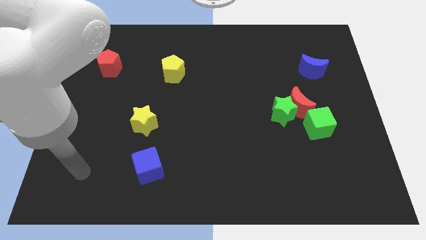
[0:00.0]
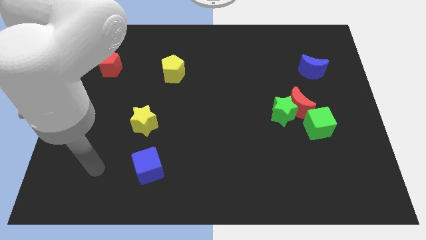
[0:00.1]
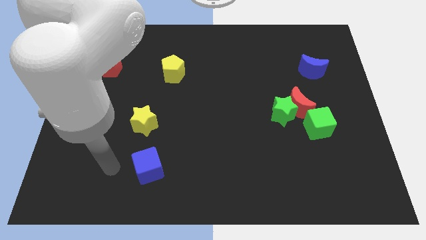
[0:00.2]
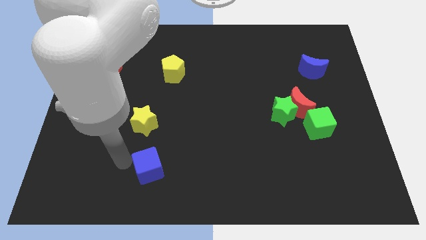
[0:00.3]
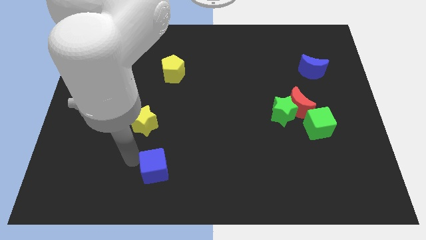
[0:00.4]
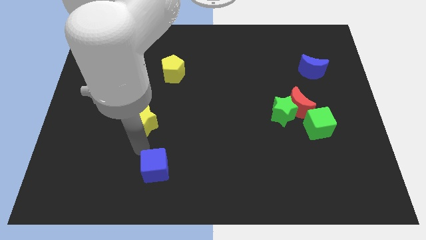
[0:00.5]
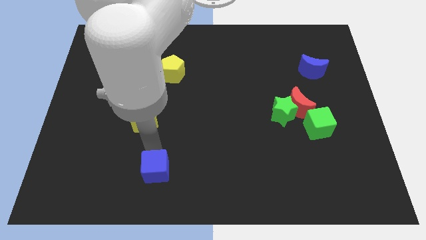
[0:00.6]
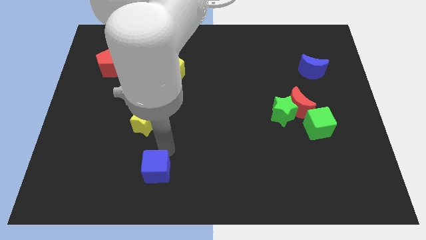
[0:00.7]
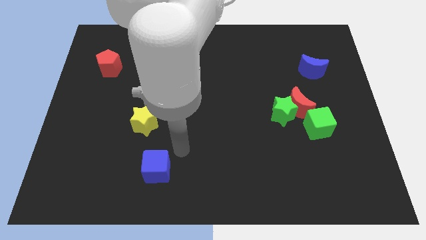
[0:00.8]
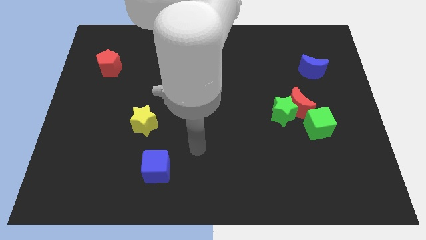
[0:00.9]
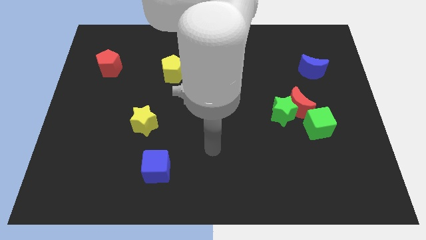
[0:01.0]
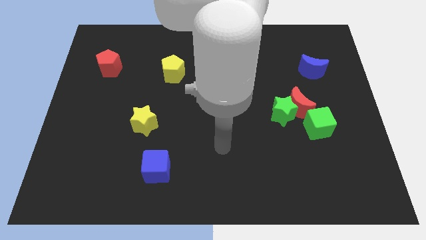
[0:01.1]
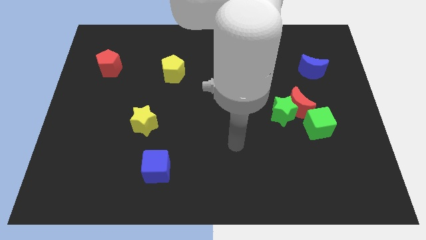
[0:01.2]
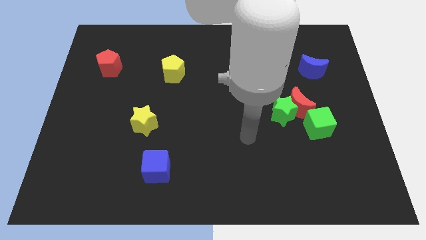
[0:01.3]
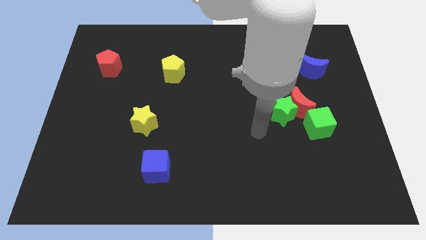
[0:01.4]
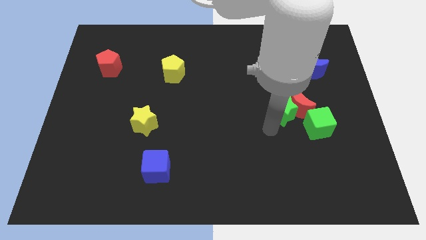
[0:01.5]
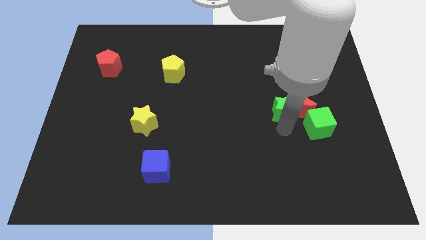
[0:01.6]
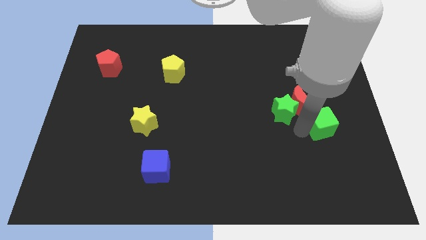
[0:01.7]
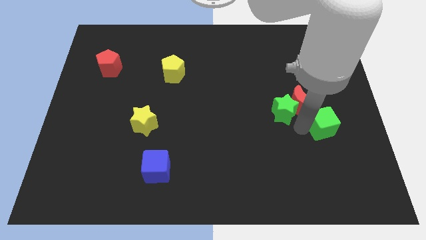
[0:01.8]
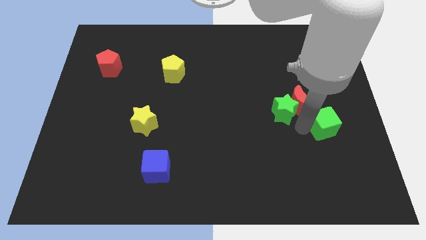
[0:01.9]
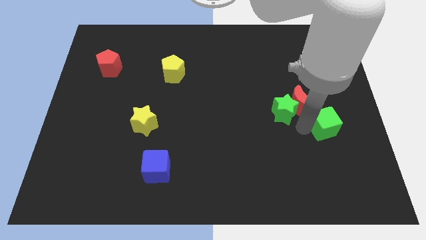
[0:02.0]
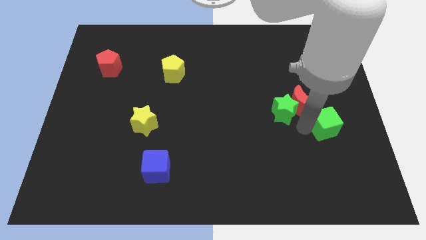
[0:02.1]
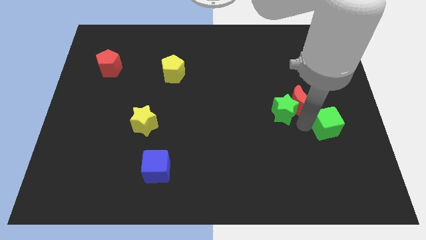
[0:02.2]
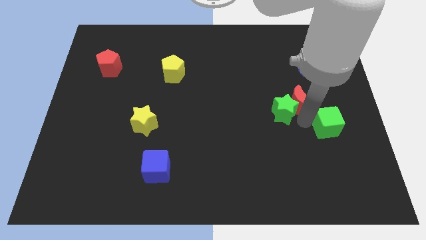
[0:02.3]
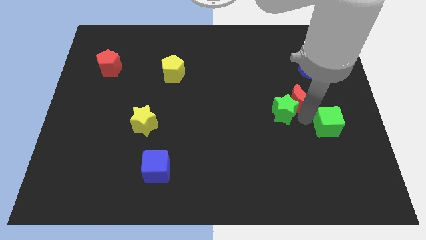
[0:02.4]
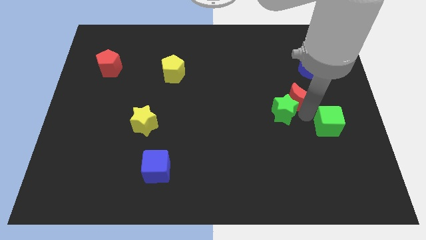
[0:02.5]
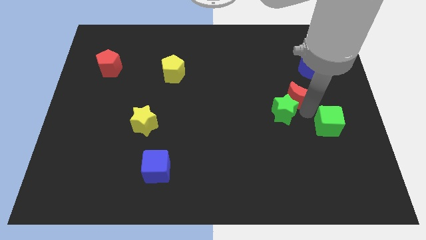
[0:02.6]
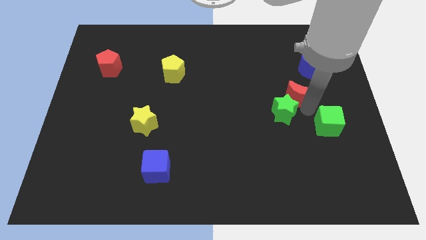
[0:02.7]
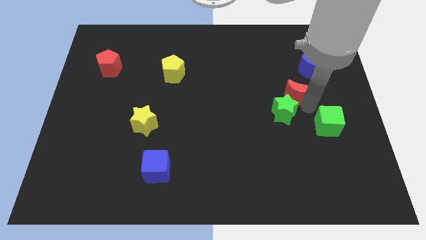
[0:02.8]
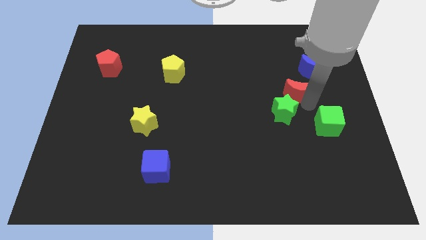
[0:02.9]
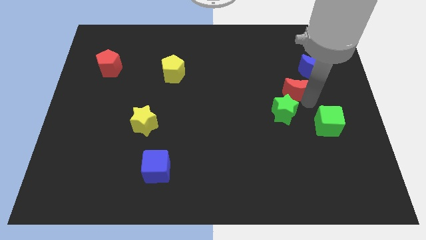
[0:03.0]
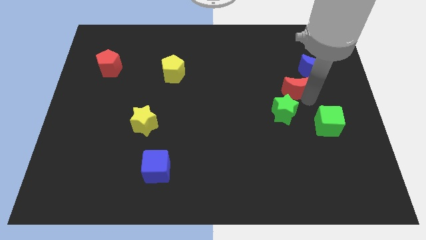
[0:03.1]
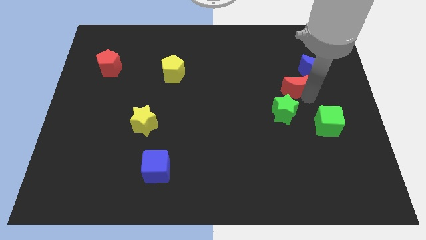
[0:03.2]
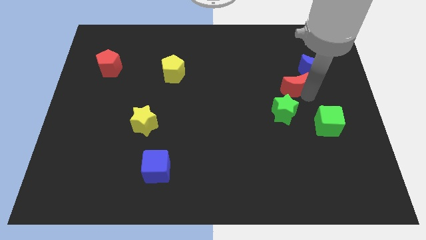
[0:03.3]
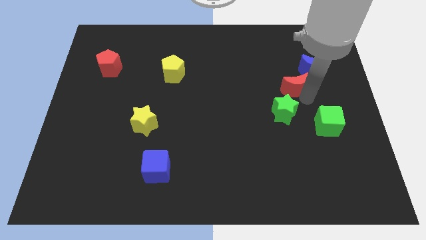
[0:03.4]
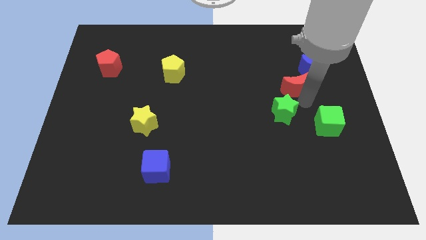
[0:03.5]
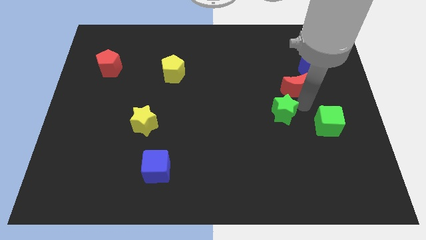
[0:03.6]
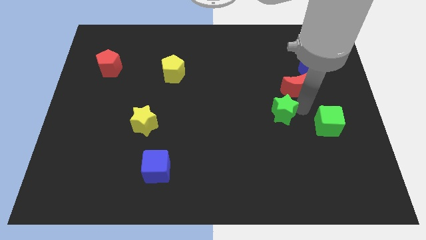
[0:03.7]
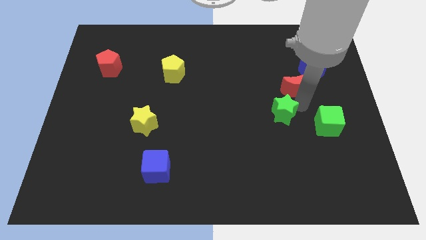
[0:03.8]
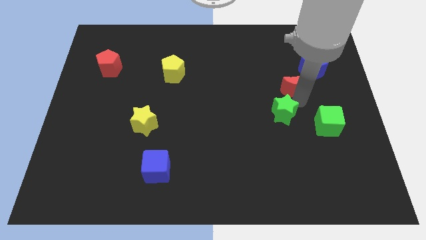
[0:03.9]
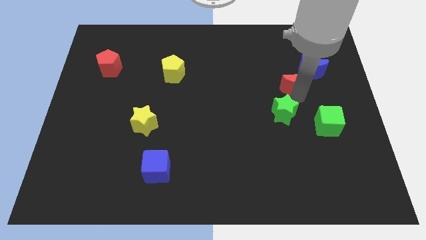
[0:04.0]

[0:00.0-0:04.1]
pull the red moon apart from the green star and green cube

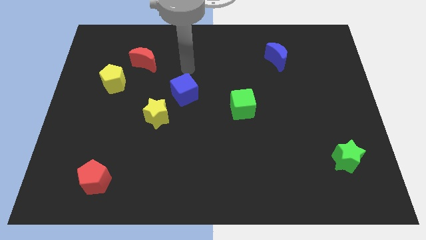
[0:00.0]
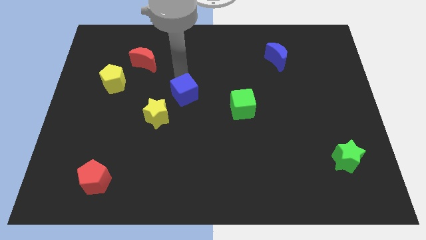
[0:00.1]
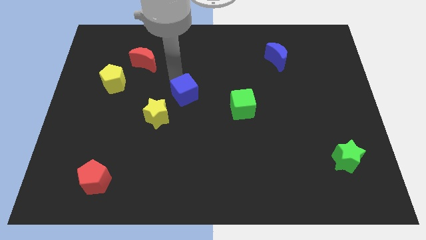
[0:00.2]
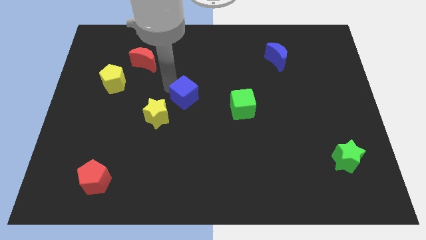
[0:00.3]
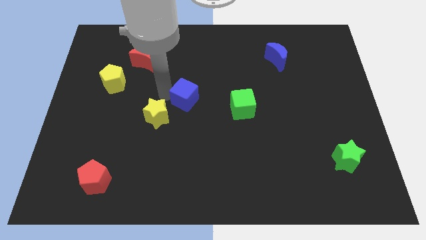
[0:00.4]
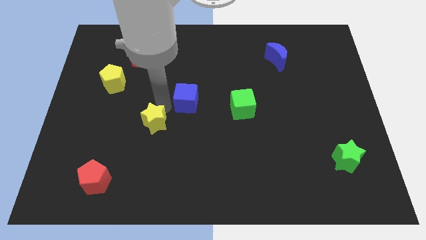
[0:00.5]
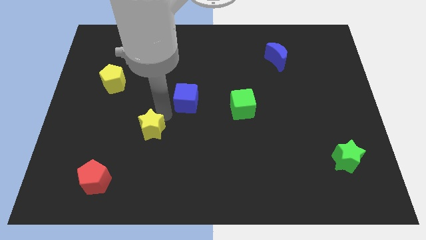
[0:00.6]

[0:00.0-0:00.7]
separate the blue cube from the yellow star

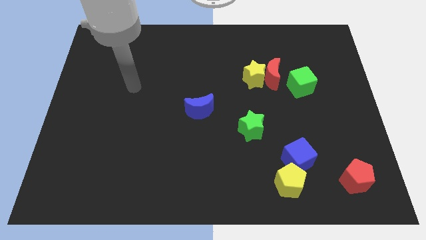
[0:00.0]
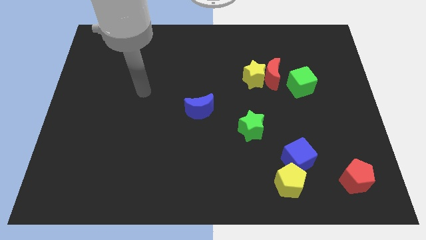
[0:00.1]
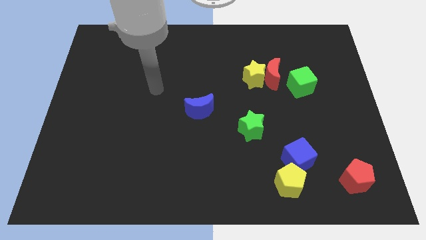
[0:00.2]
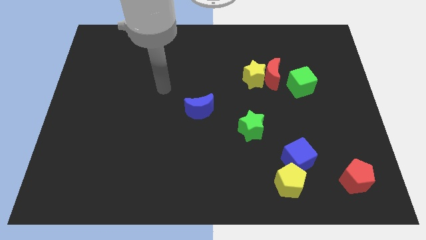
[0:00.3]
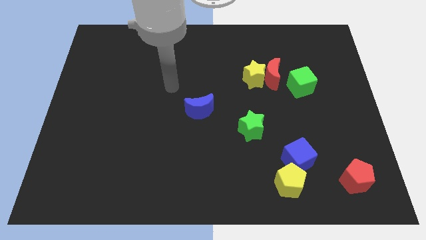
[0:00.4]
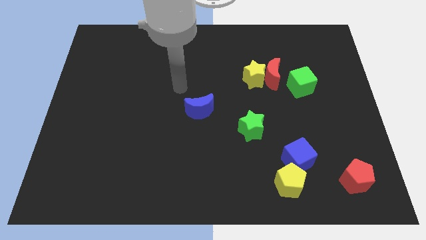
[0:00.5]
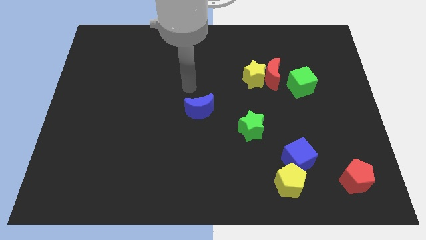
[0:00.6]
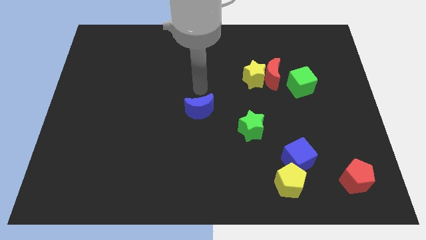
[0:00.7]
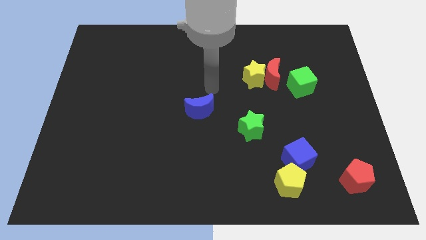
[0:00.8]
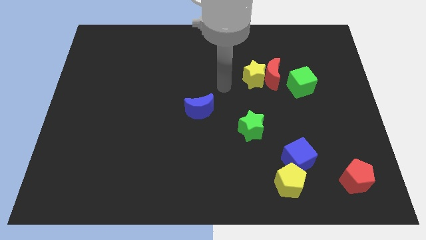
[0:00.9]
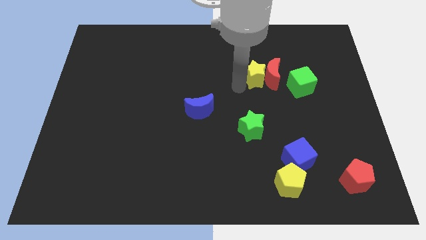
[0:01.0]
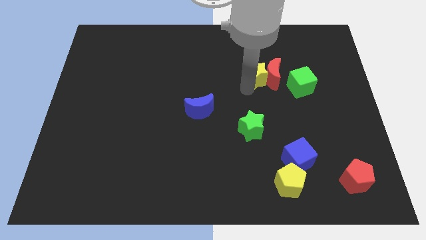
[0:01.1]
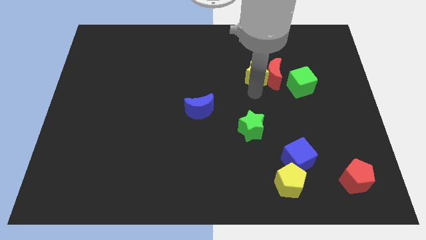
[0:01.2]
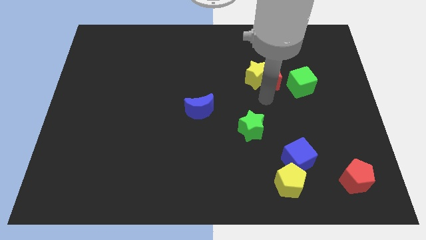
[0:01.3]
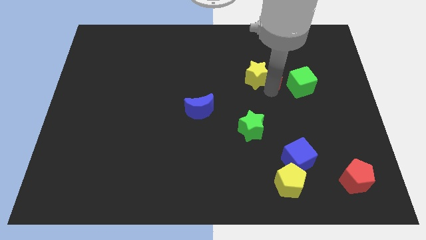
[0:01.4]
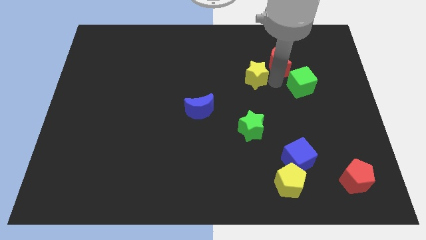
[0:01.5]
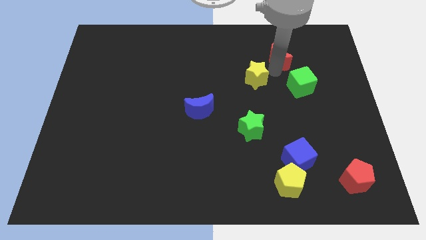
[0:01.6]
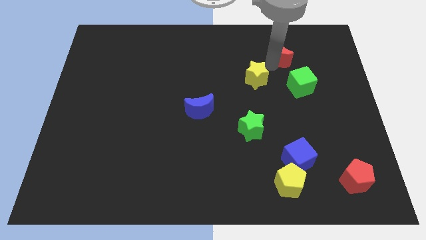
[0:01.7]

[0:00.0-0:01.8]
separate the yellow star from the red moon

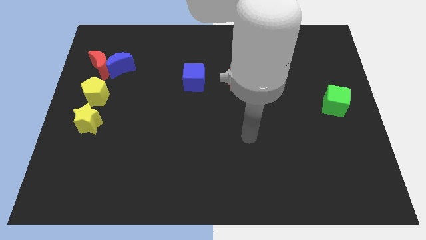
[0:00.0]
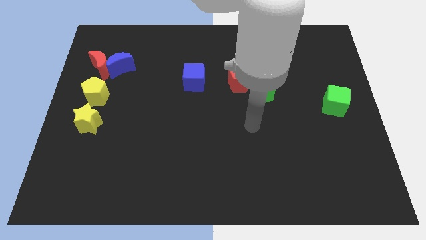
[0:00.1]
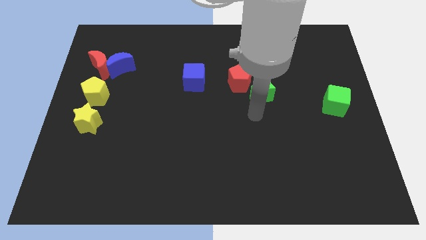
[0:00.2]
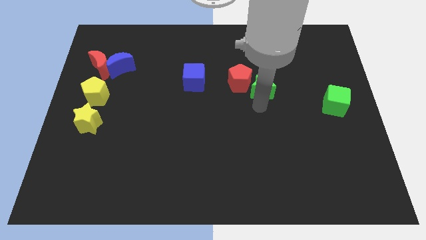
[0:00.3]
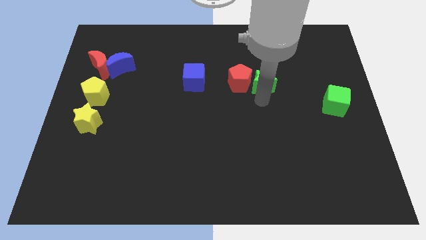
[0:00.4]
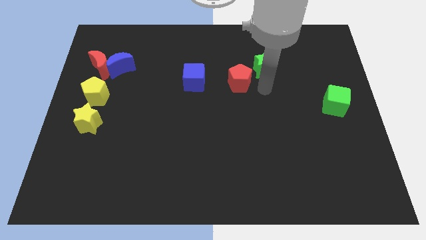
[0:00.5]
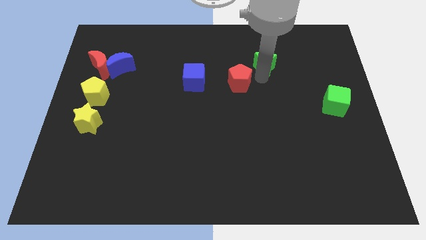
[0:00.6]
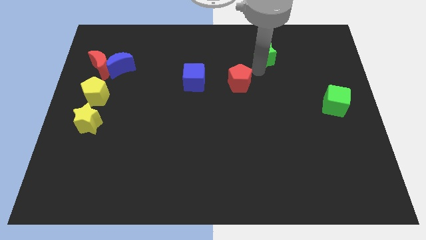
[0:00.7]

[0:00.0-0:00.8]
pull the red pentagon apart from the green star

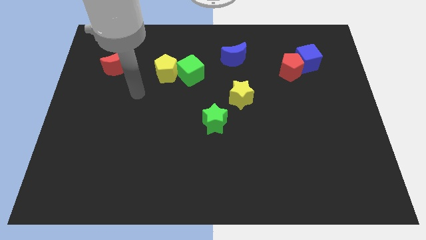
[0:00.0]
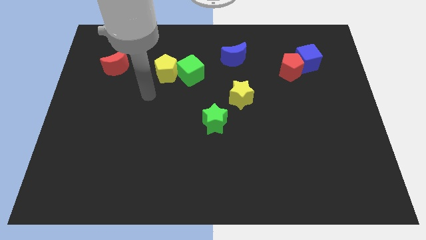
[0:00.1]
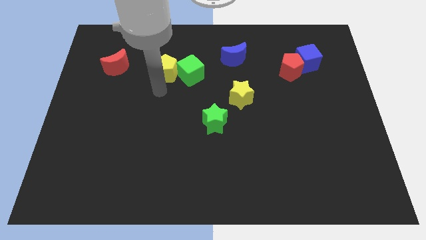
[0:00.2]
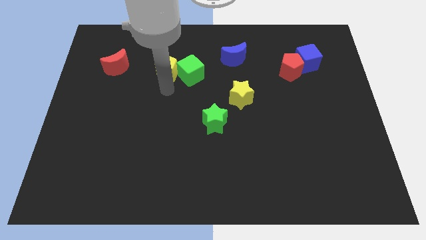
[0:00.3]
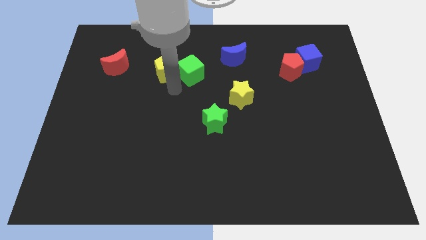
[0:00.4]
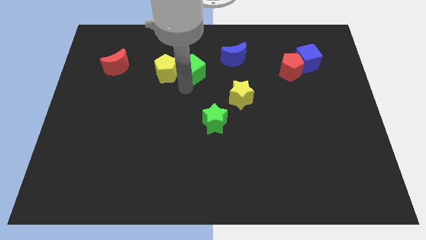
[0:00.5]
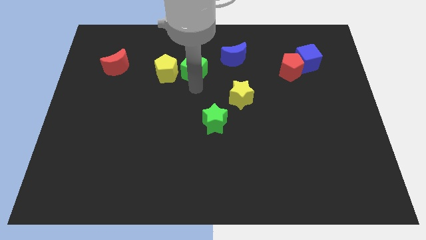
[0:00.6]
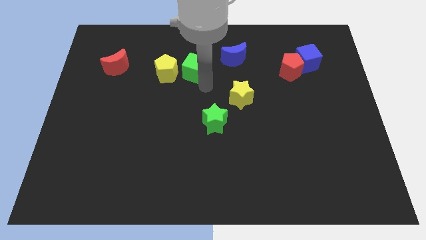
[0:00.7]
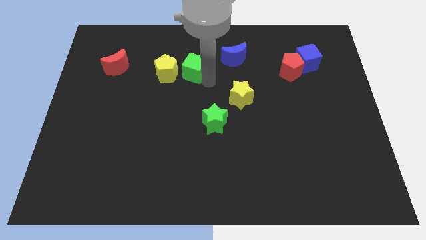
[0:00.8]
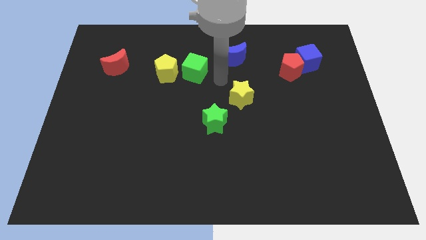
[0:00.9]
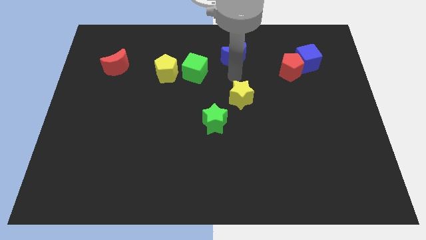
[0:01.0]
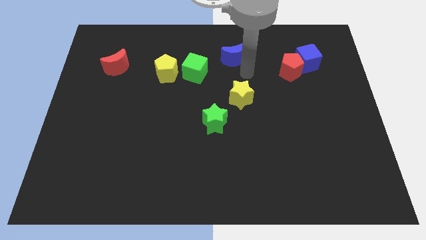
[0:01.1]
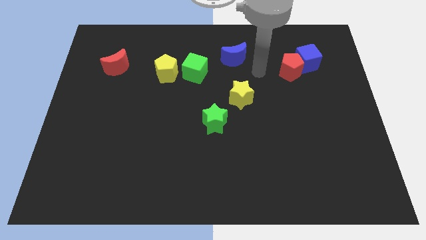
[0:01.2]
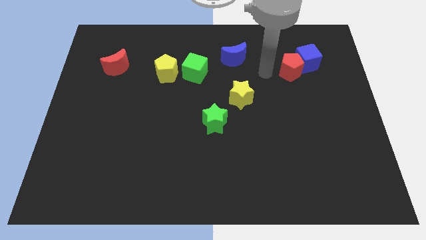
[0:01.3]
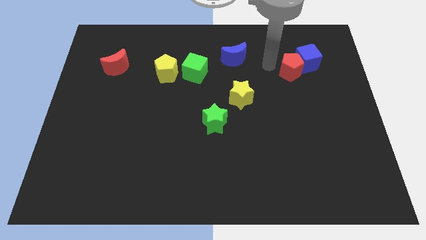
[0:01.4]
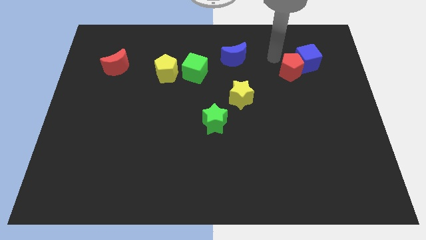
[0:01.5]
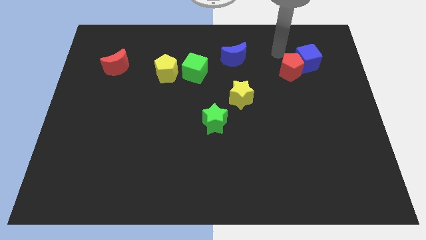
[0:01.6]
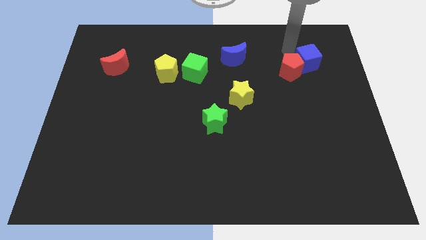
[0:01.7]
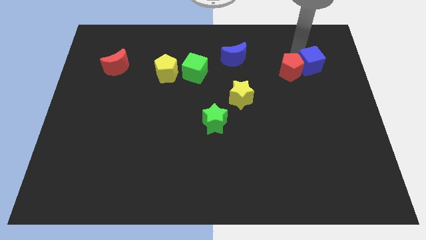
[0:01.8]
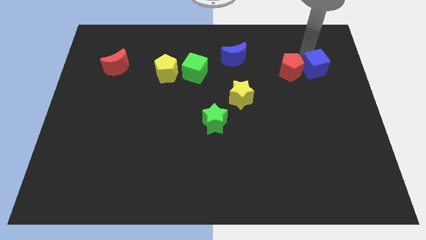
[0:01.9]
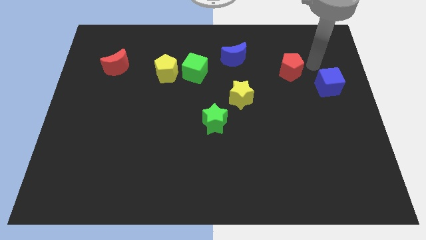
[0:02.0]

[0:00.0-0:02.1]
move the red pentagon away from the blue cube
